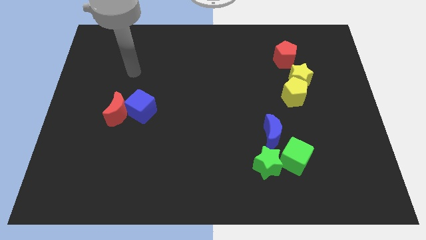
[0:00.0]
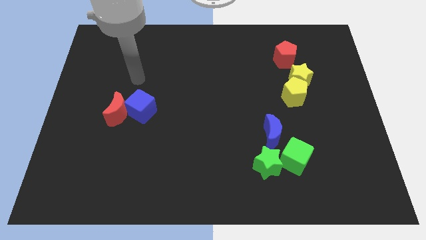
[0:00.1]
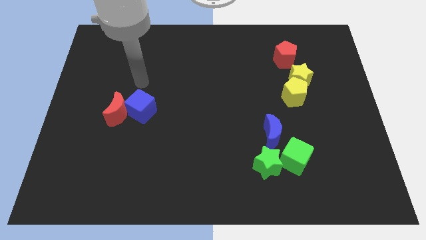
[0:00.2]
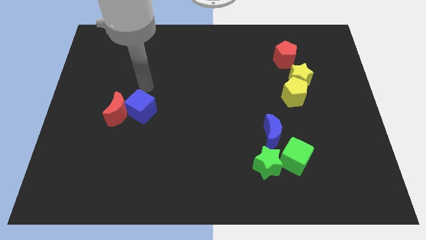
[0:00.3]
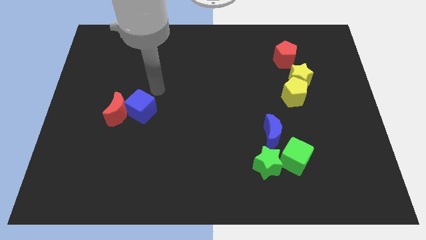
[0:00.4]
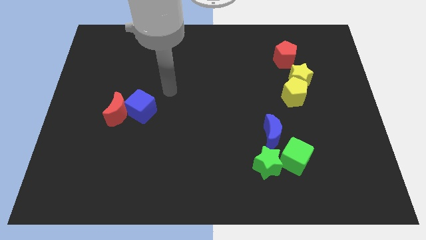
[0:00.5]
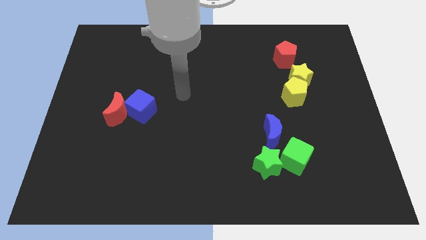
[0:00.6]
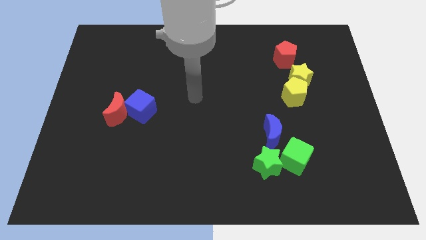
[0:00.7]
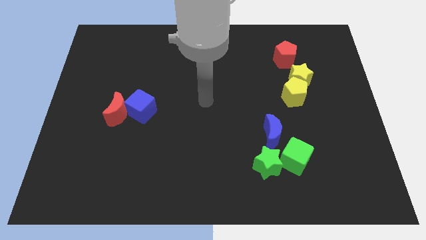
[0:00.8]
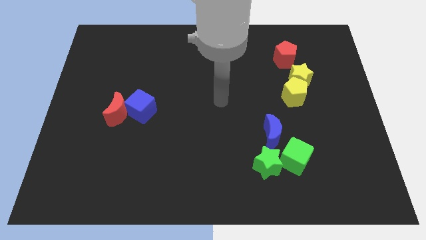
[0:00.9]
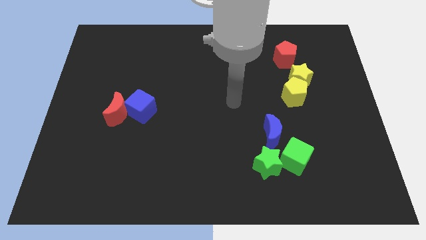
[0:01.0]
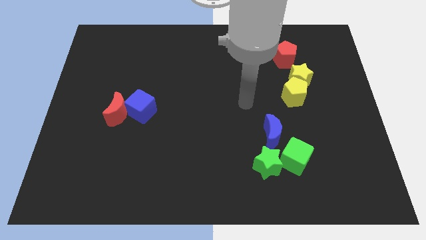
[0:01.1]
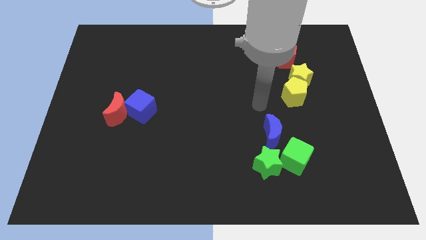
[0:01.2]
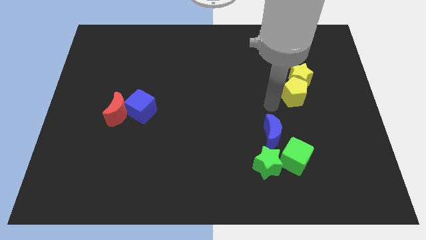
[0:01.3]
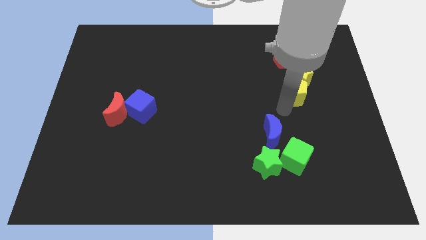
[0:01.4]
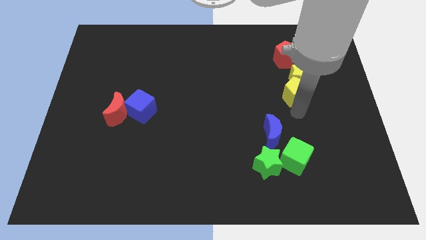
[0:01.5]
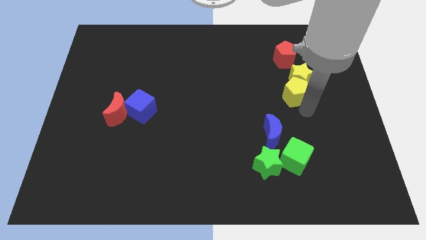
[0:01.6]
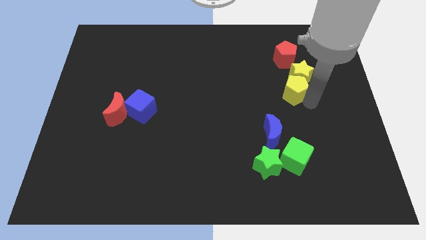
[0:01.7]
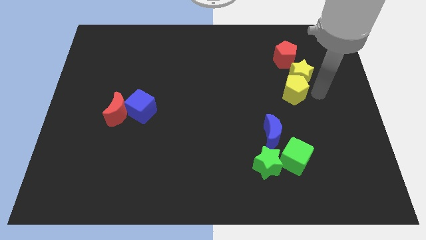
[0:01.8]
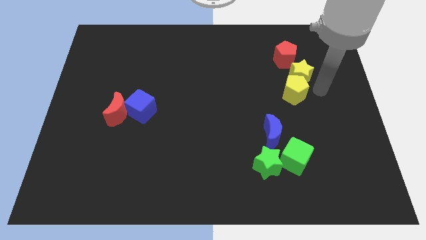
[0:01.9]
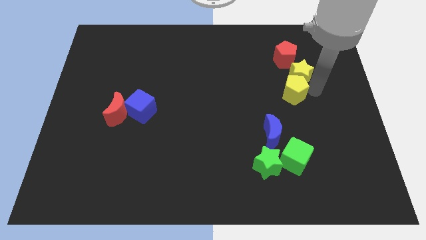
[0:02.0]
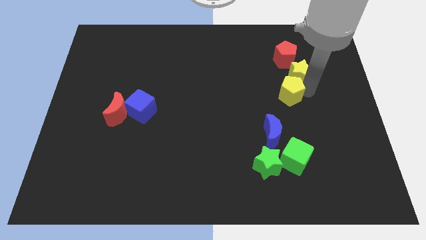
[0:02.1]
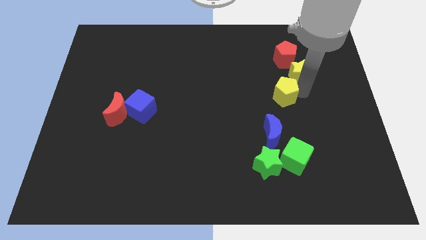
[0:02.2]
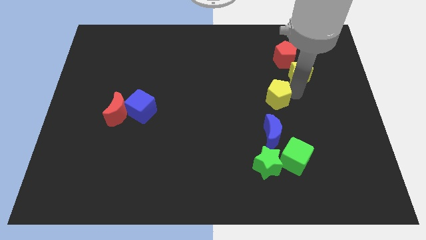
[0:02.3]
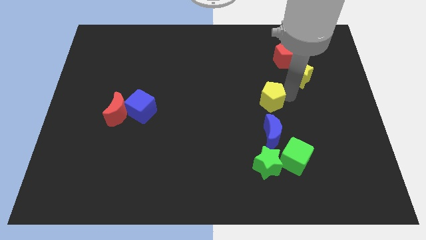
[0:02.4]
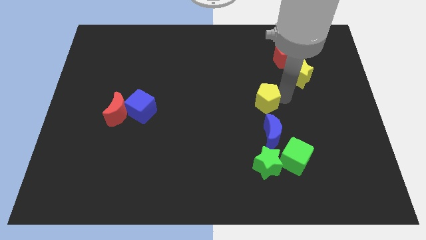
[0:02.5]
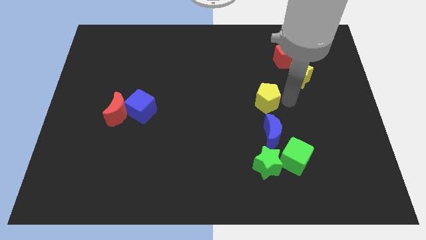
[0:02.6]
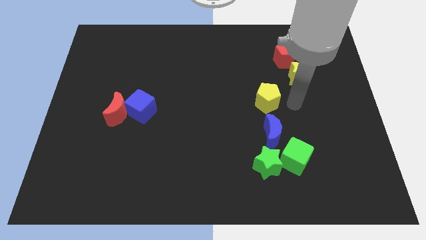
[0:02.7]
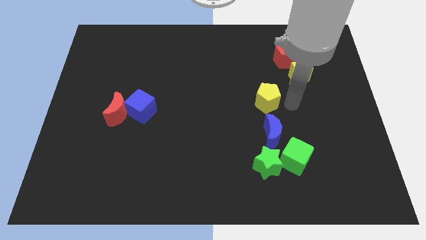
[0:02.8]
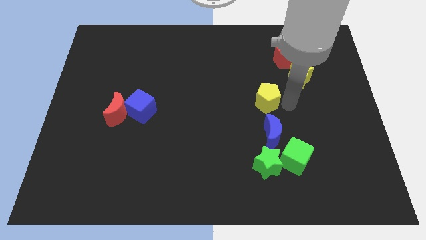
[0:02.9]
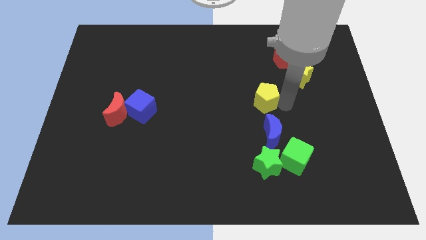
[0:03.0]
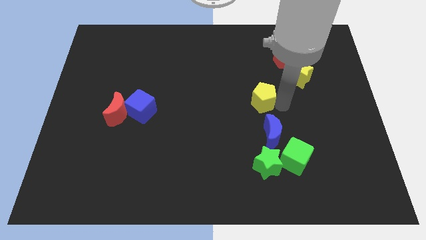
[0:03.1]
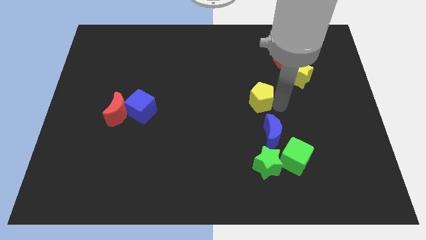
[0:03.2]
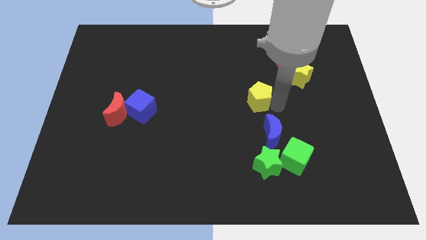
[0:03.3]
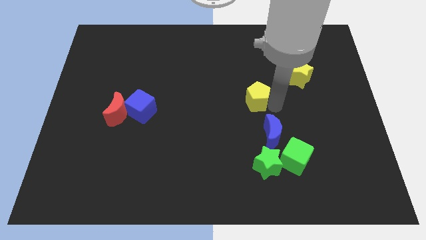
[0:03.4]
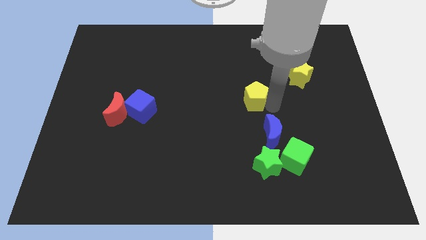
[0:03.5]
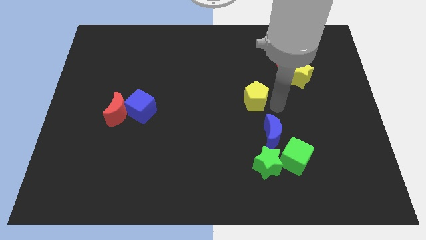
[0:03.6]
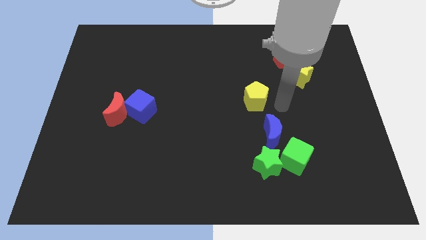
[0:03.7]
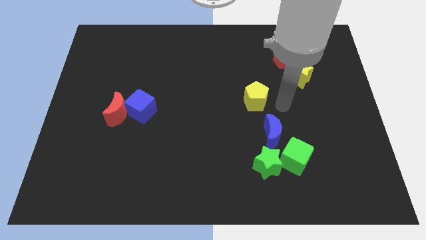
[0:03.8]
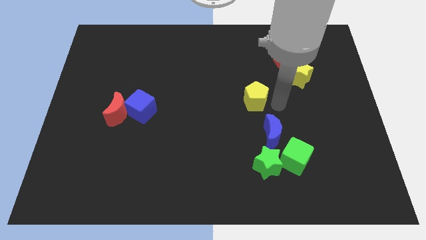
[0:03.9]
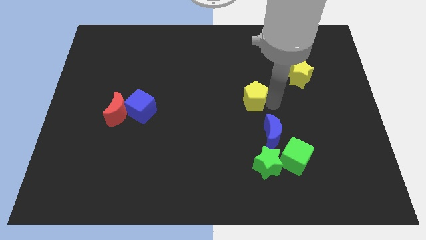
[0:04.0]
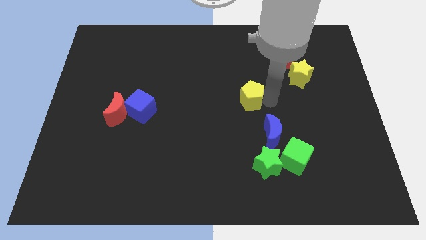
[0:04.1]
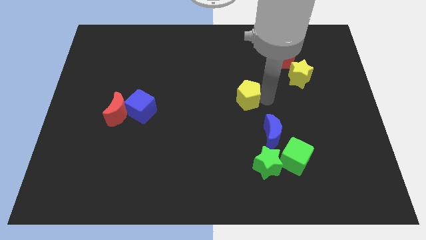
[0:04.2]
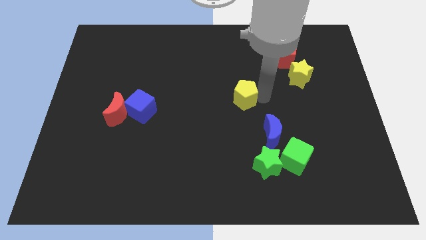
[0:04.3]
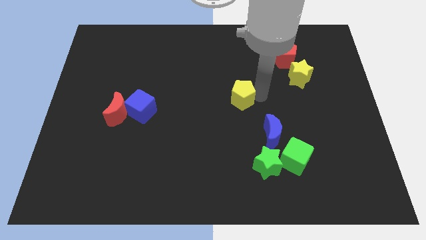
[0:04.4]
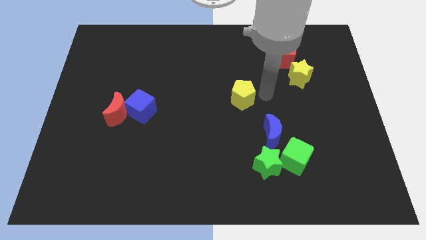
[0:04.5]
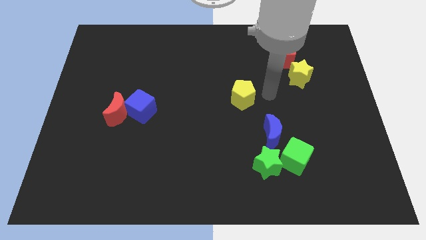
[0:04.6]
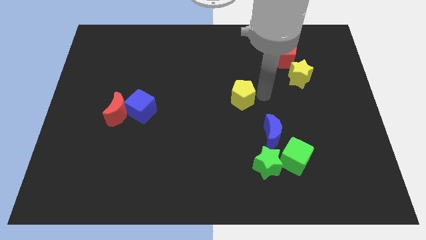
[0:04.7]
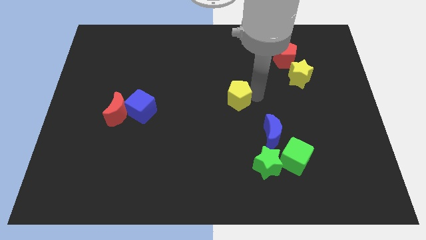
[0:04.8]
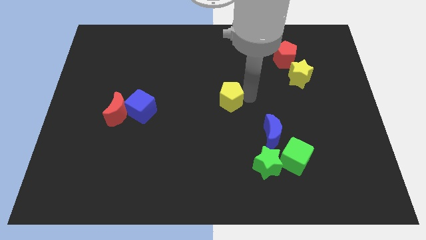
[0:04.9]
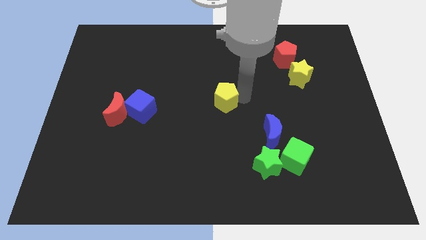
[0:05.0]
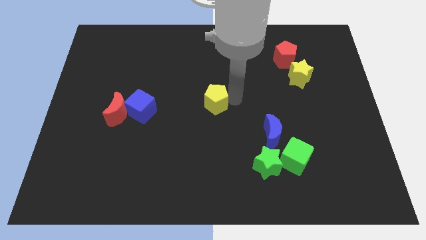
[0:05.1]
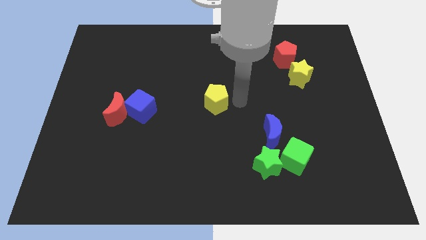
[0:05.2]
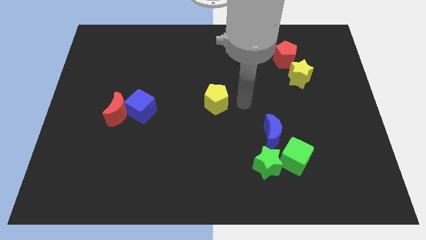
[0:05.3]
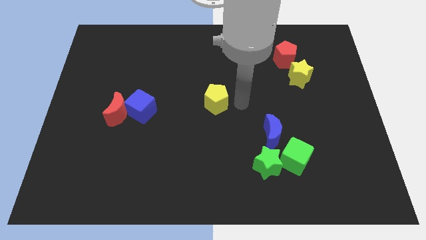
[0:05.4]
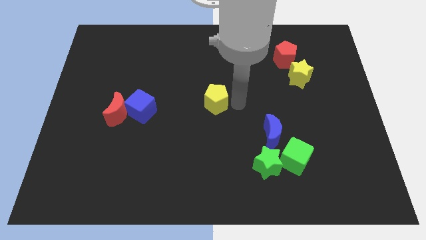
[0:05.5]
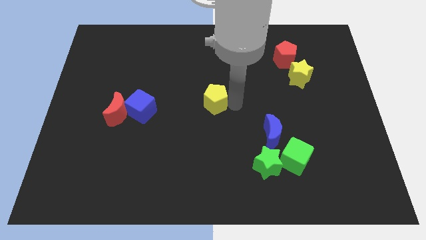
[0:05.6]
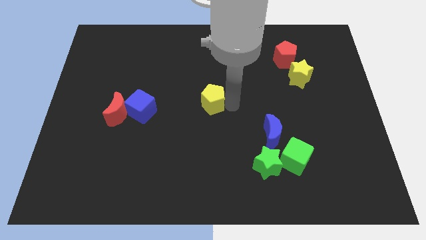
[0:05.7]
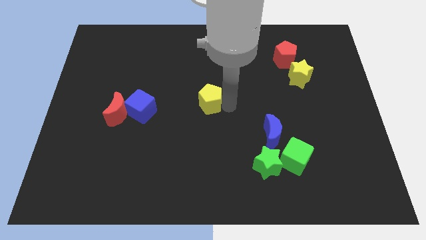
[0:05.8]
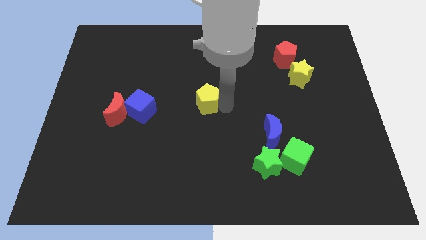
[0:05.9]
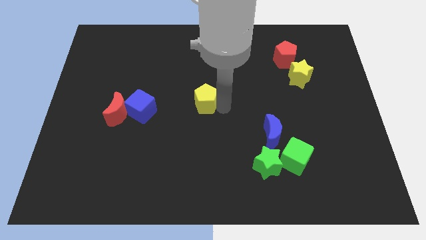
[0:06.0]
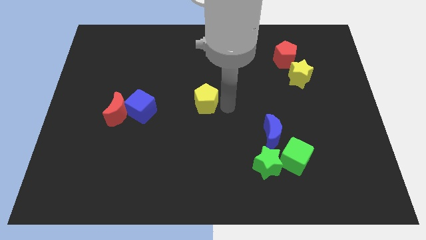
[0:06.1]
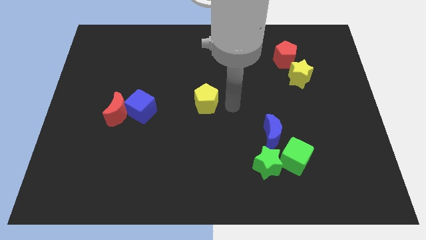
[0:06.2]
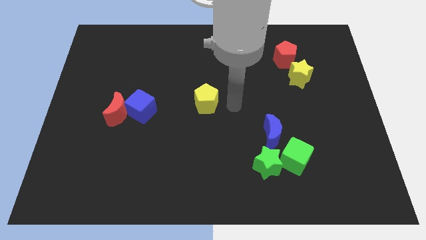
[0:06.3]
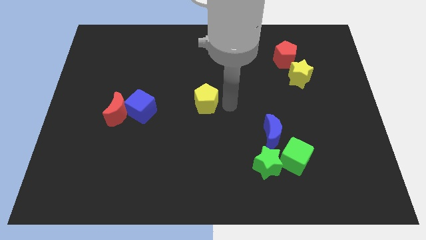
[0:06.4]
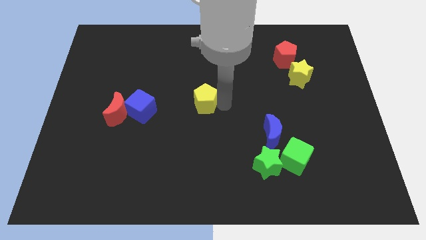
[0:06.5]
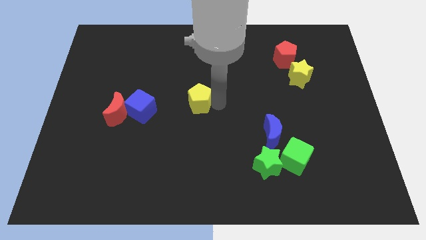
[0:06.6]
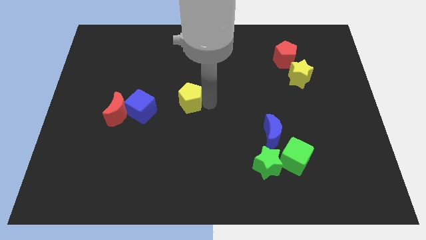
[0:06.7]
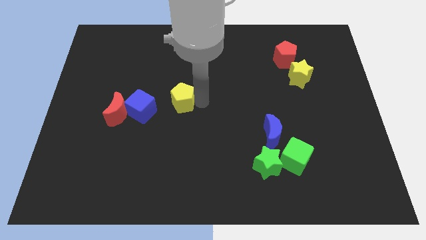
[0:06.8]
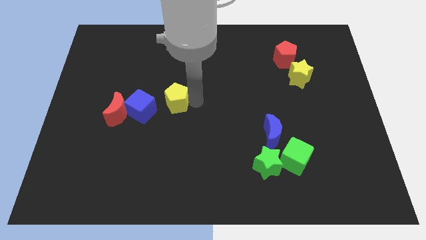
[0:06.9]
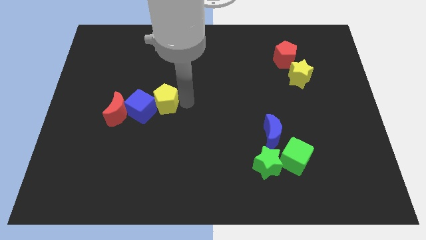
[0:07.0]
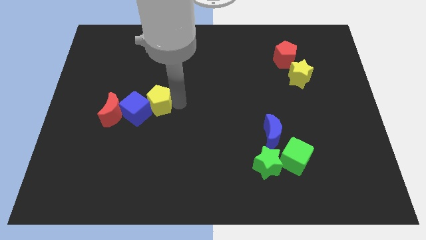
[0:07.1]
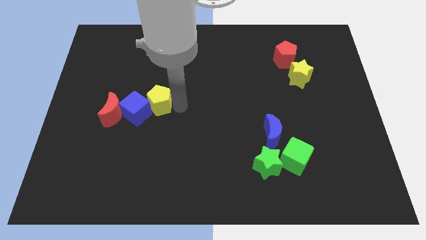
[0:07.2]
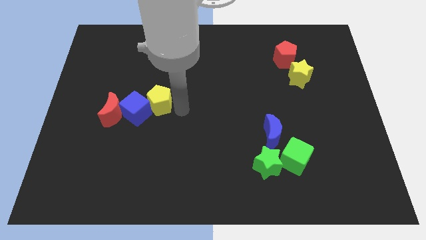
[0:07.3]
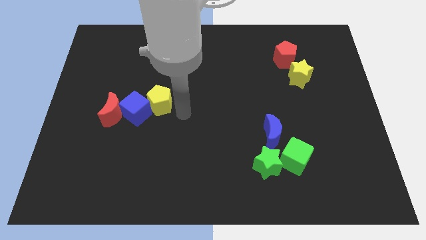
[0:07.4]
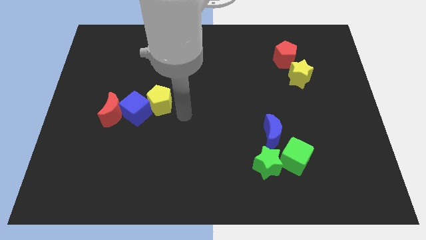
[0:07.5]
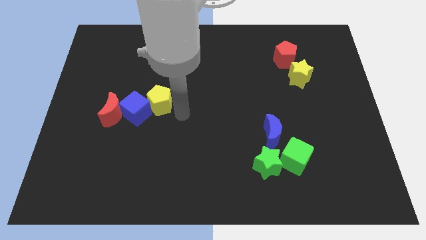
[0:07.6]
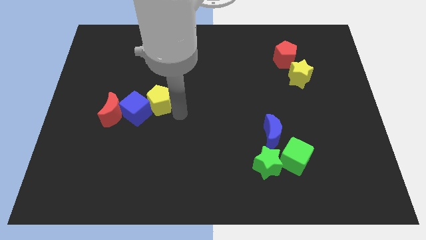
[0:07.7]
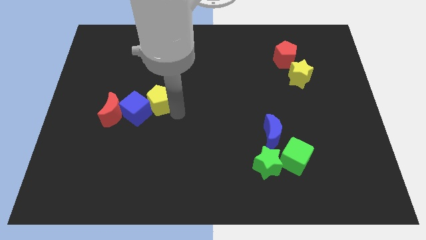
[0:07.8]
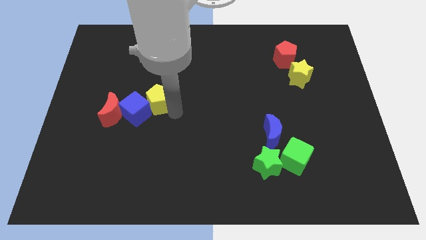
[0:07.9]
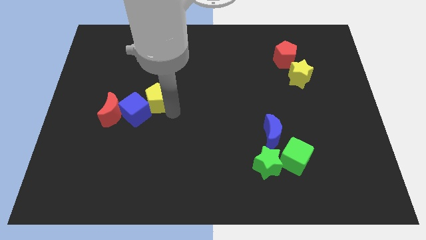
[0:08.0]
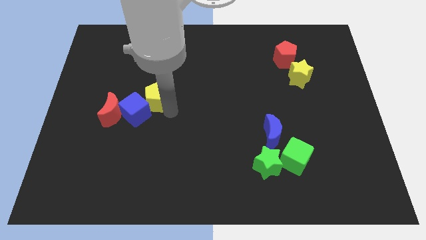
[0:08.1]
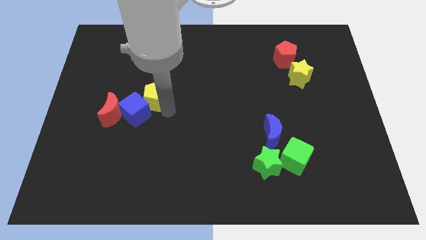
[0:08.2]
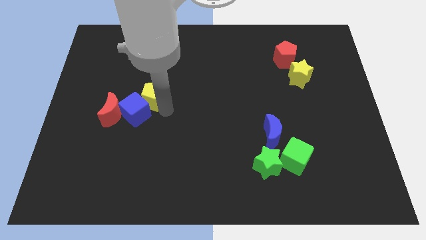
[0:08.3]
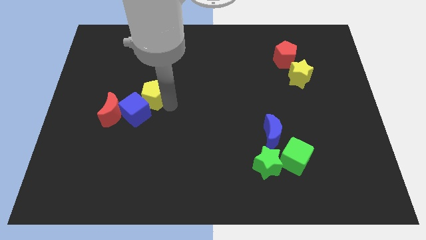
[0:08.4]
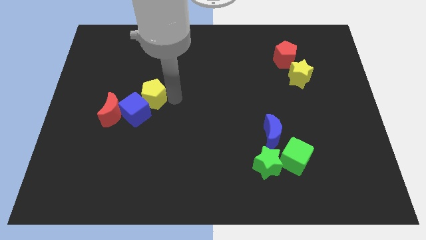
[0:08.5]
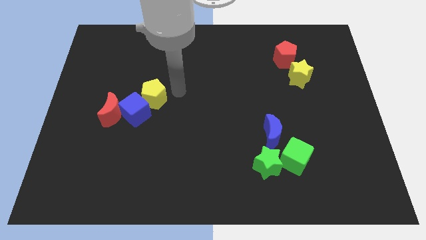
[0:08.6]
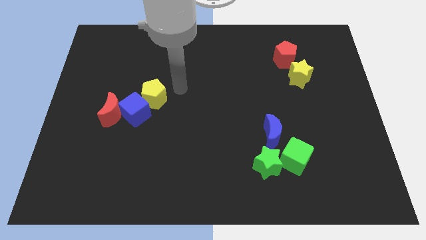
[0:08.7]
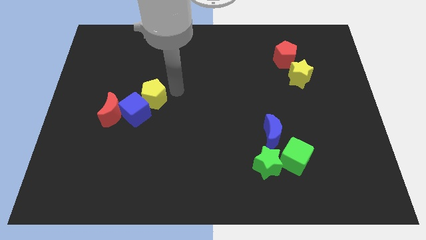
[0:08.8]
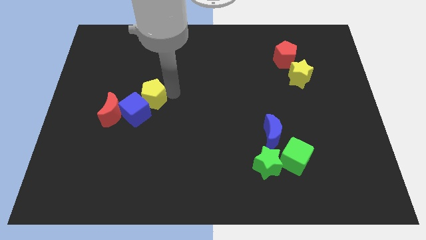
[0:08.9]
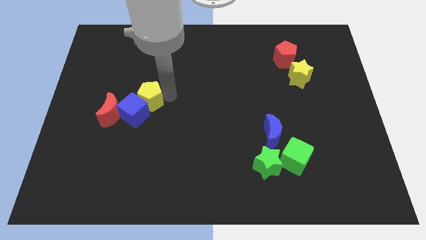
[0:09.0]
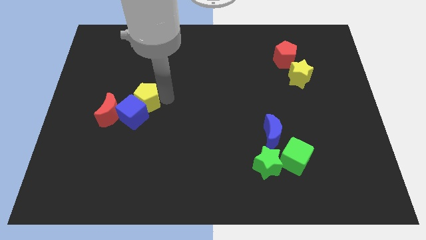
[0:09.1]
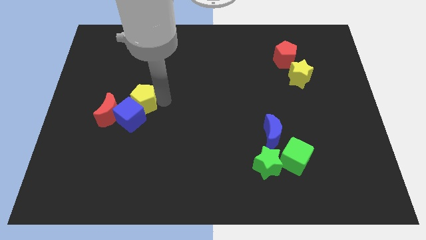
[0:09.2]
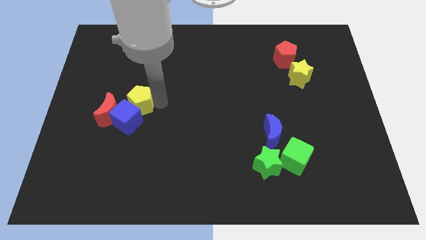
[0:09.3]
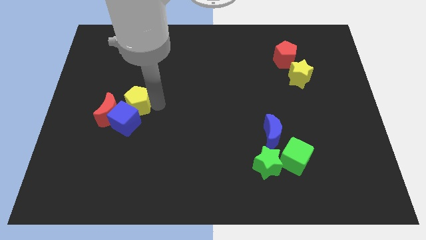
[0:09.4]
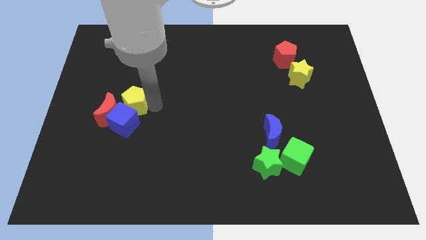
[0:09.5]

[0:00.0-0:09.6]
slide the yellow pentagon to the red moon
